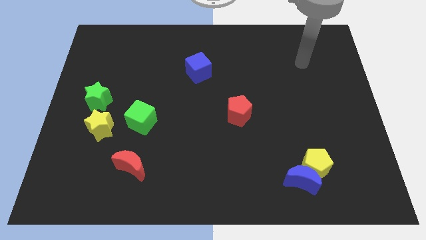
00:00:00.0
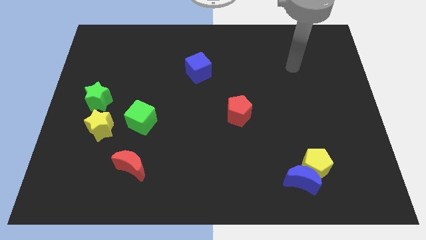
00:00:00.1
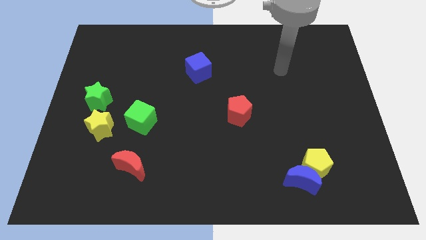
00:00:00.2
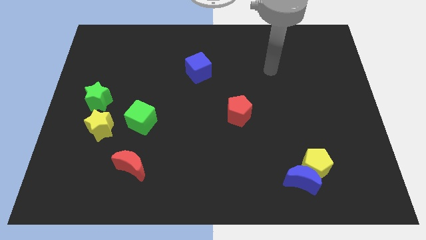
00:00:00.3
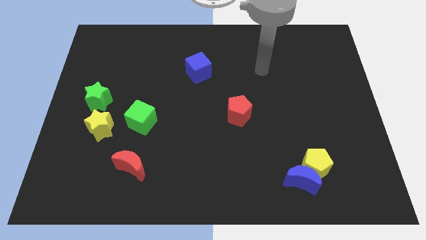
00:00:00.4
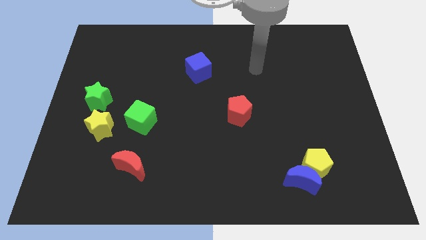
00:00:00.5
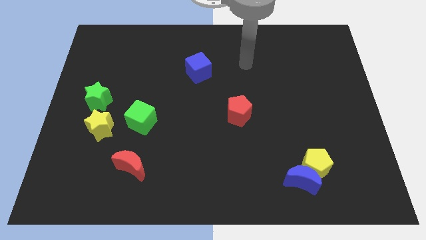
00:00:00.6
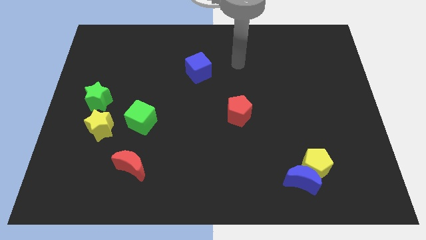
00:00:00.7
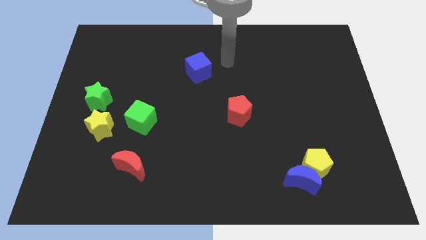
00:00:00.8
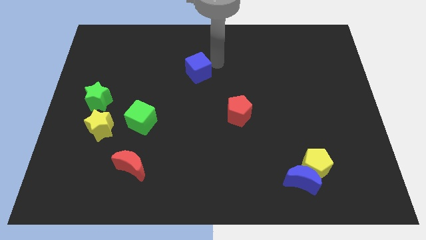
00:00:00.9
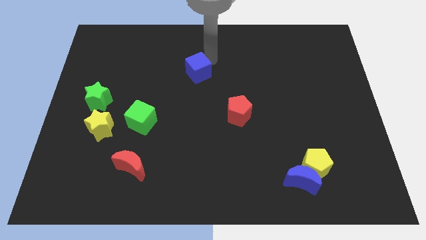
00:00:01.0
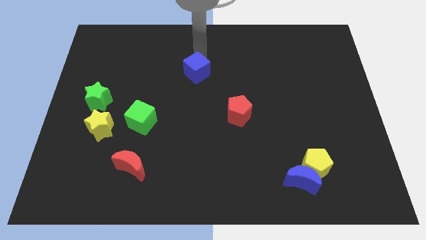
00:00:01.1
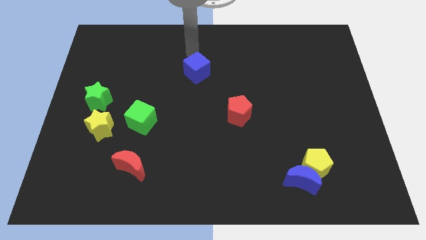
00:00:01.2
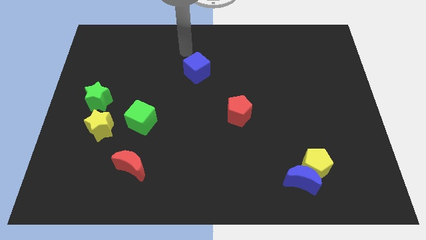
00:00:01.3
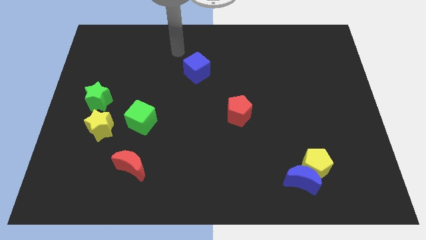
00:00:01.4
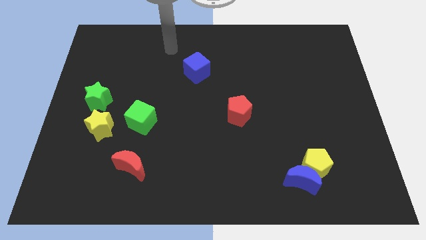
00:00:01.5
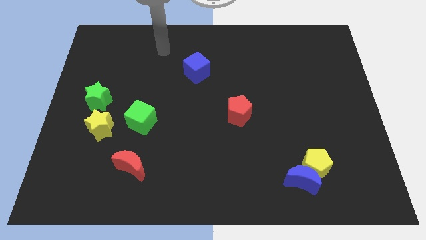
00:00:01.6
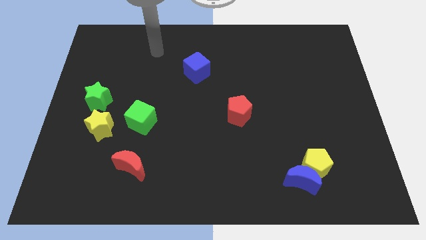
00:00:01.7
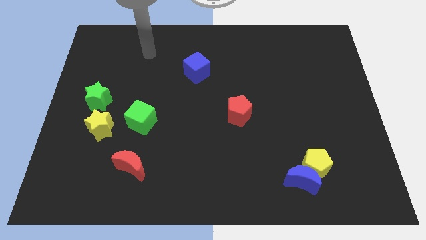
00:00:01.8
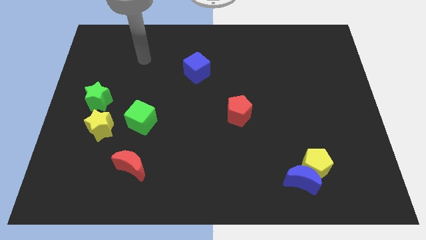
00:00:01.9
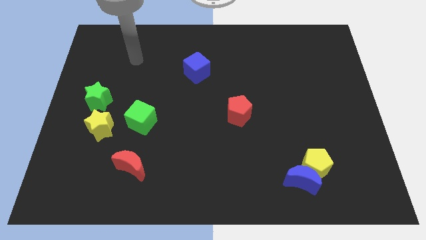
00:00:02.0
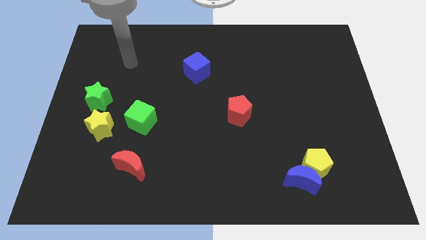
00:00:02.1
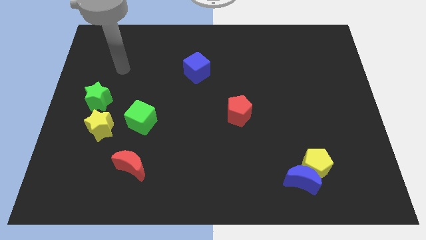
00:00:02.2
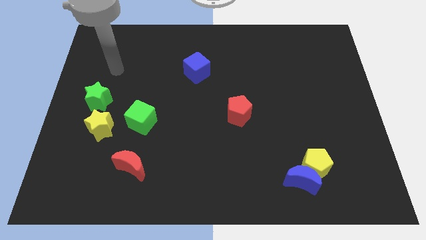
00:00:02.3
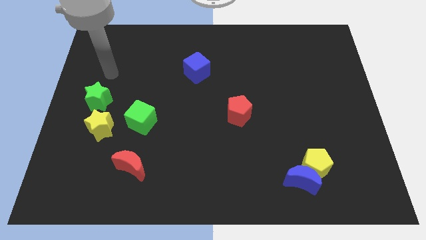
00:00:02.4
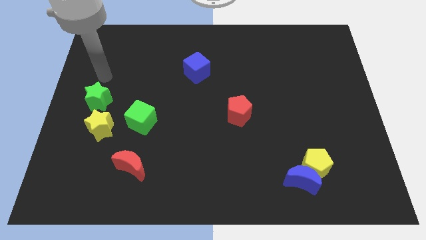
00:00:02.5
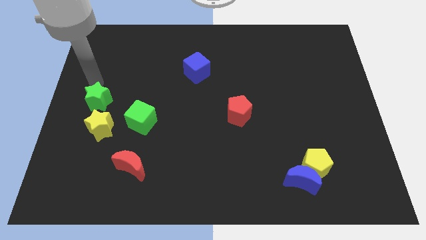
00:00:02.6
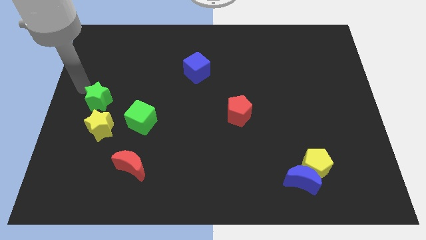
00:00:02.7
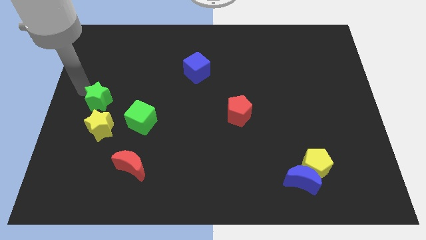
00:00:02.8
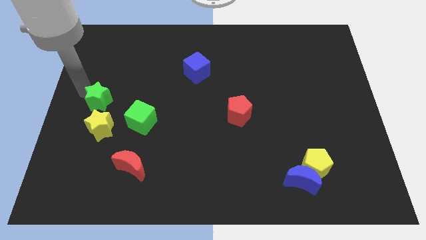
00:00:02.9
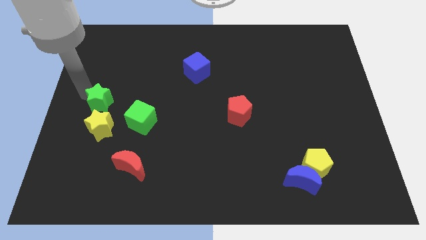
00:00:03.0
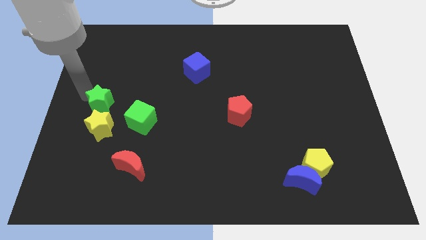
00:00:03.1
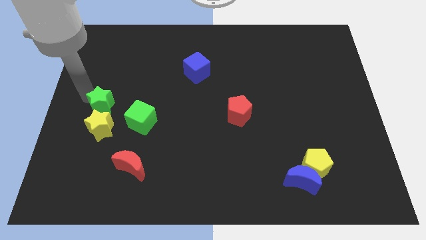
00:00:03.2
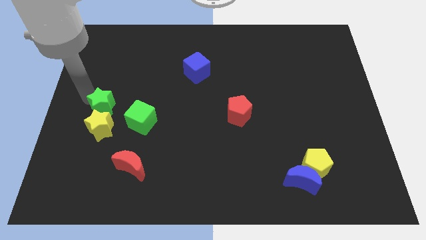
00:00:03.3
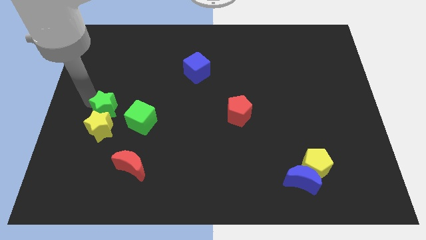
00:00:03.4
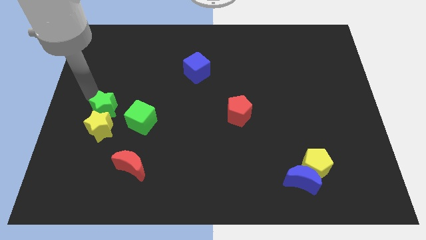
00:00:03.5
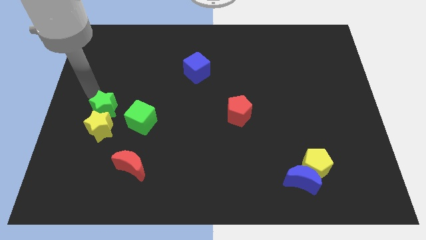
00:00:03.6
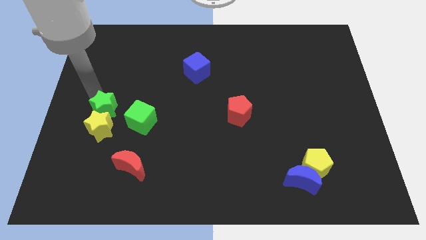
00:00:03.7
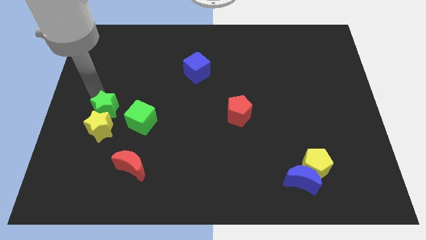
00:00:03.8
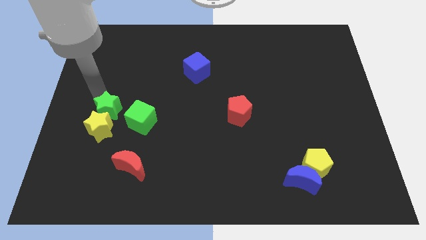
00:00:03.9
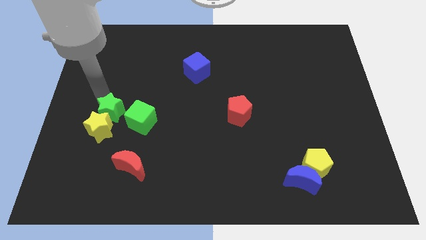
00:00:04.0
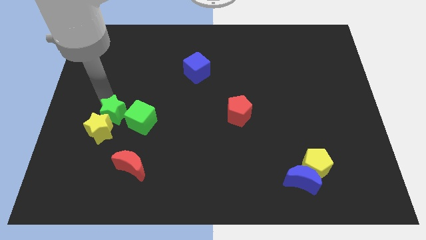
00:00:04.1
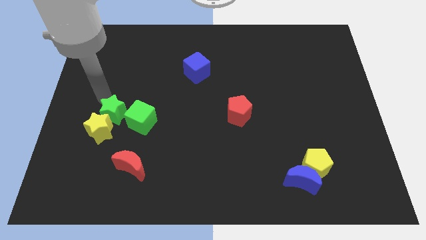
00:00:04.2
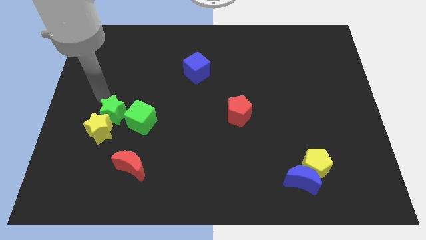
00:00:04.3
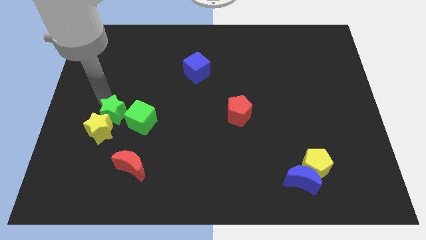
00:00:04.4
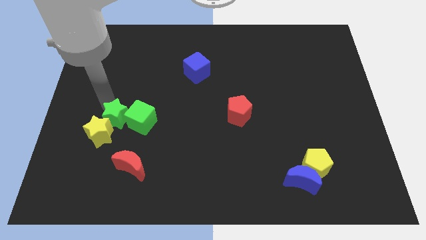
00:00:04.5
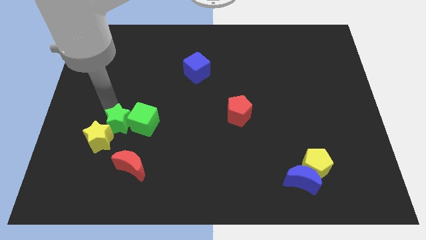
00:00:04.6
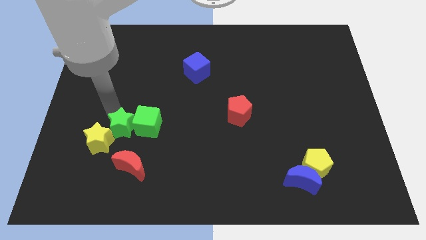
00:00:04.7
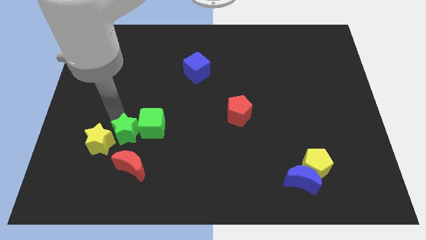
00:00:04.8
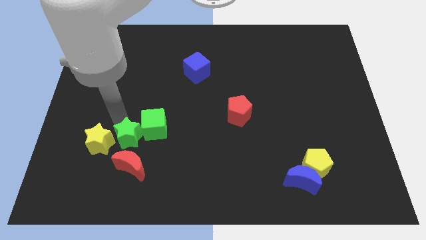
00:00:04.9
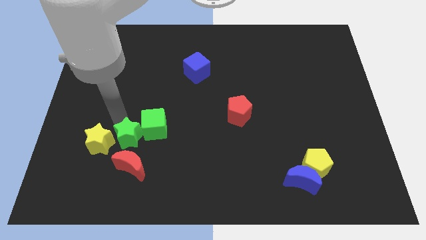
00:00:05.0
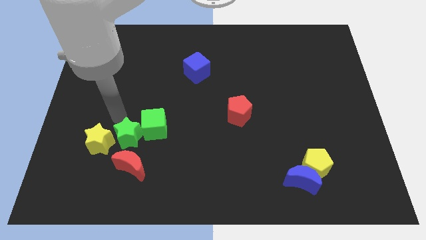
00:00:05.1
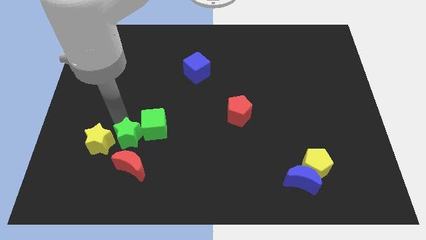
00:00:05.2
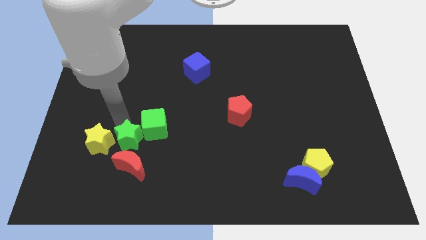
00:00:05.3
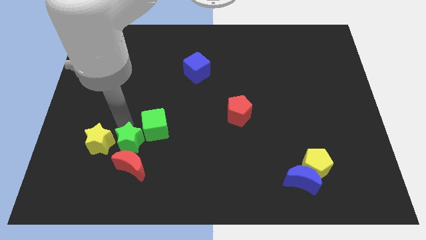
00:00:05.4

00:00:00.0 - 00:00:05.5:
put the green star next to the red moon

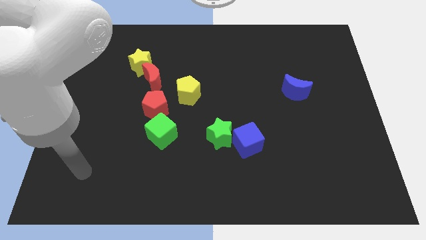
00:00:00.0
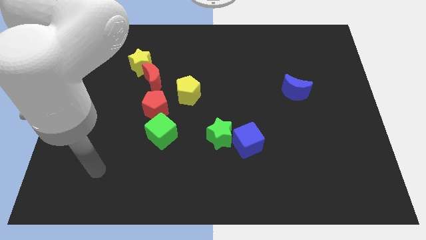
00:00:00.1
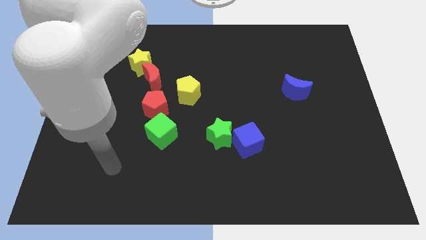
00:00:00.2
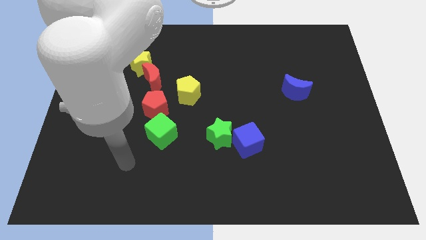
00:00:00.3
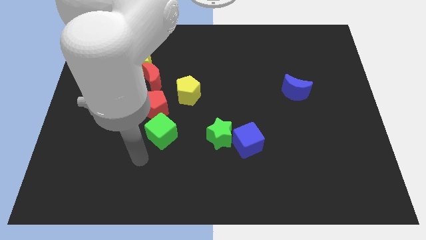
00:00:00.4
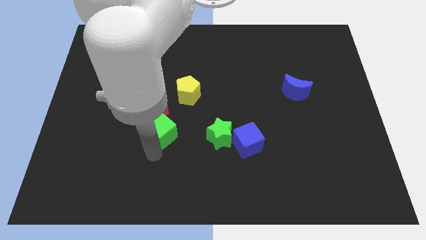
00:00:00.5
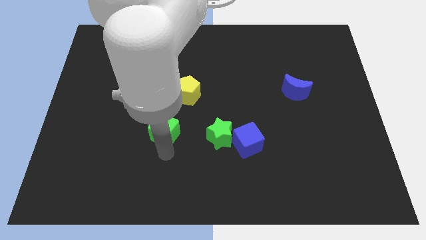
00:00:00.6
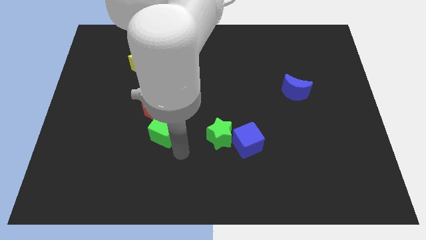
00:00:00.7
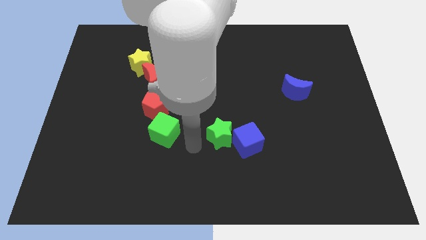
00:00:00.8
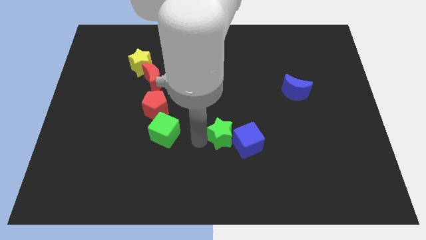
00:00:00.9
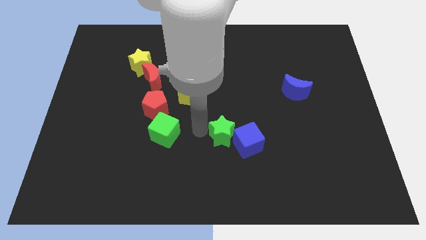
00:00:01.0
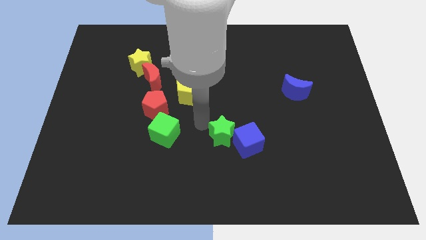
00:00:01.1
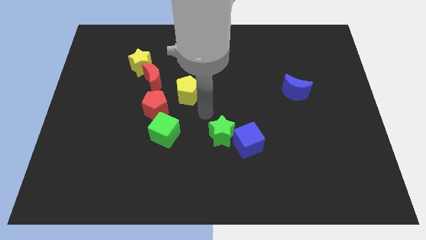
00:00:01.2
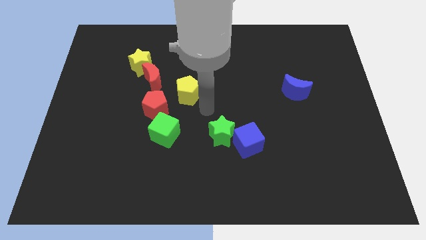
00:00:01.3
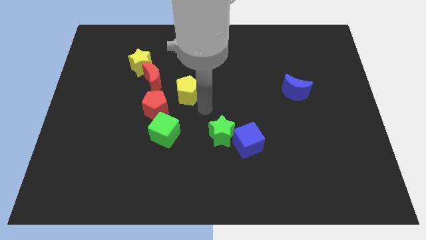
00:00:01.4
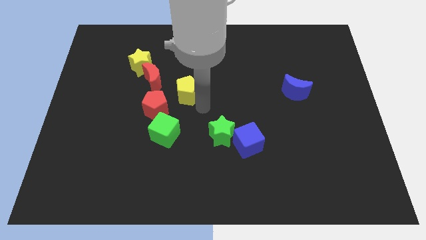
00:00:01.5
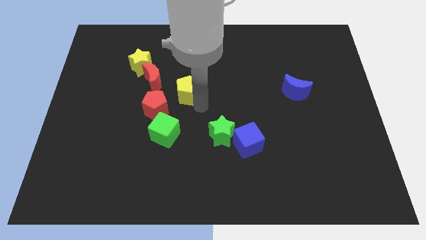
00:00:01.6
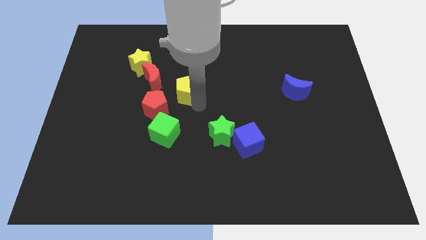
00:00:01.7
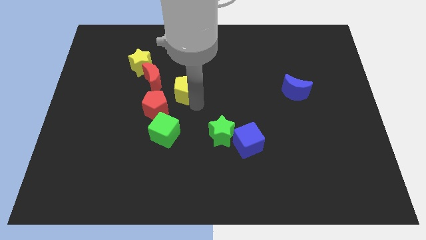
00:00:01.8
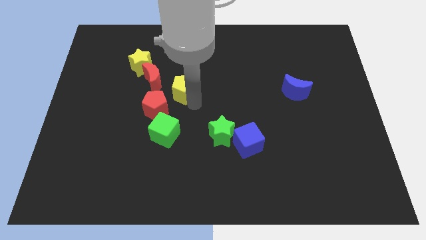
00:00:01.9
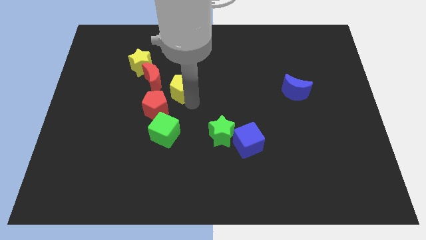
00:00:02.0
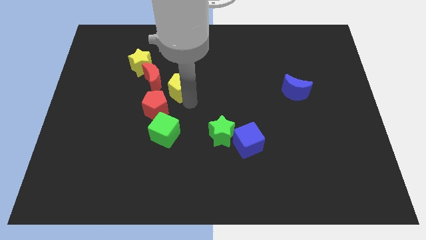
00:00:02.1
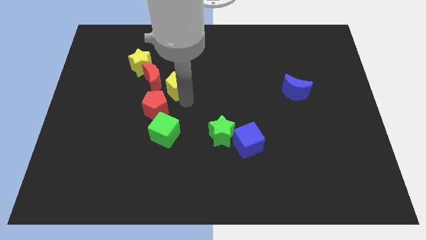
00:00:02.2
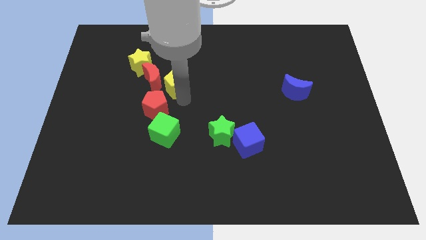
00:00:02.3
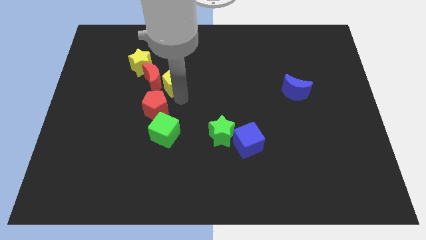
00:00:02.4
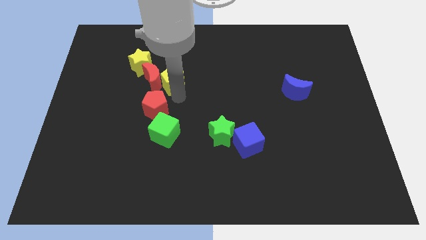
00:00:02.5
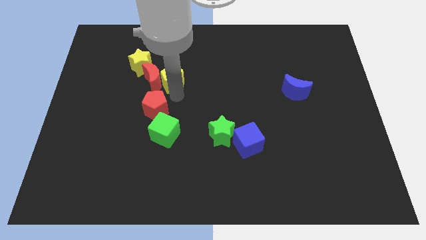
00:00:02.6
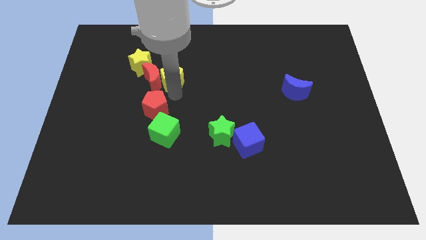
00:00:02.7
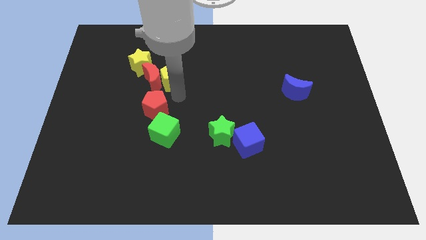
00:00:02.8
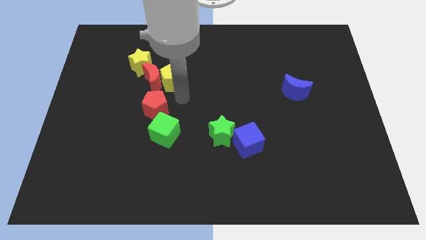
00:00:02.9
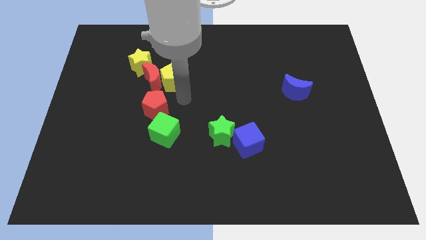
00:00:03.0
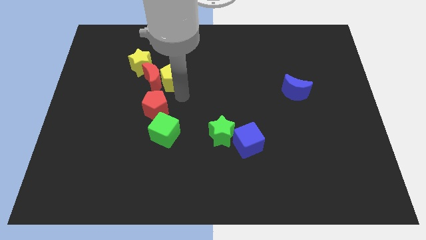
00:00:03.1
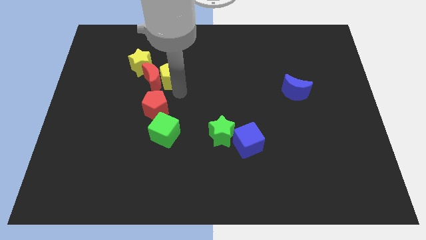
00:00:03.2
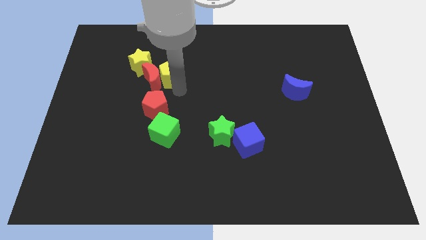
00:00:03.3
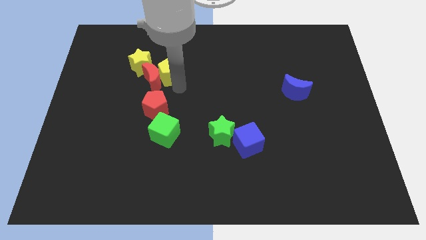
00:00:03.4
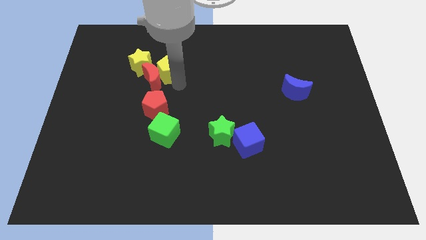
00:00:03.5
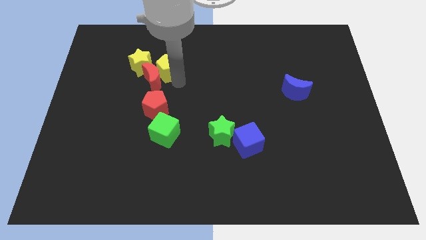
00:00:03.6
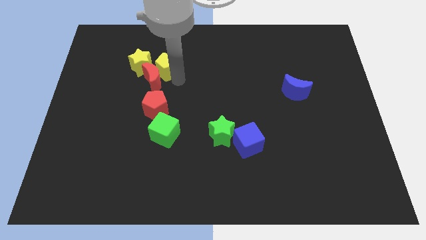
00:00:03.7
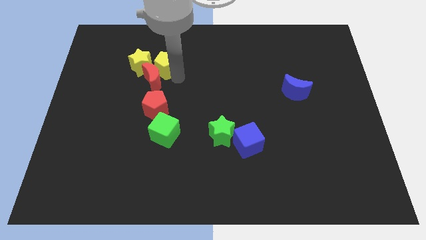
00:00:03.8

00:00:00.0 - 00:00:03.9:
push the yellow pentagon next to the yellow star
